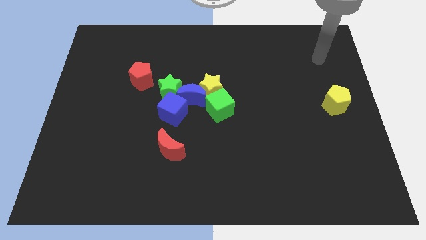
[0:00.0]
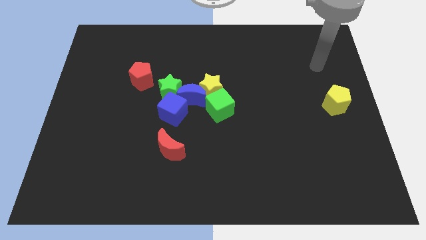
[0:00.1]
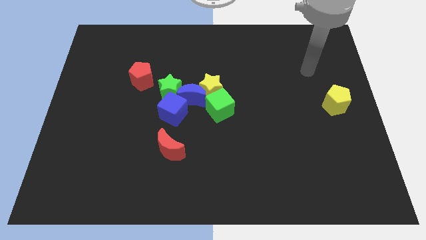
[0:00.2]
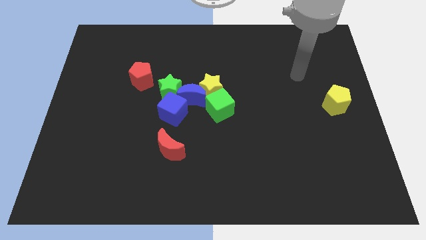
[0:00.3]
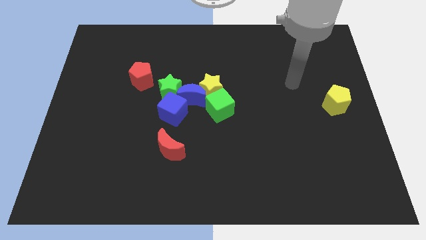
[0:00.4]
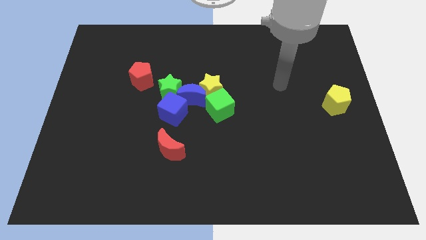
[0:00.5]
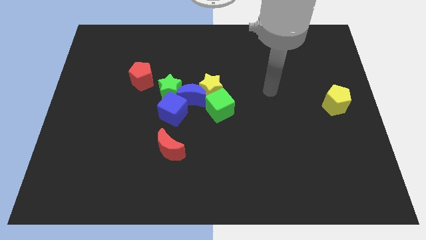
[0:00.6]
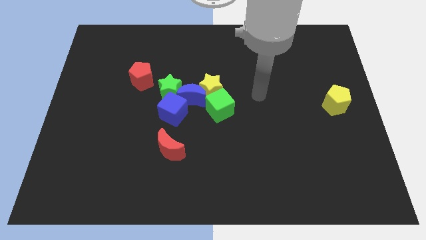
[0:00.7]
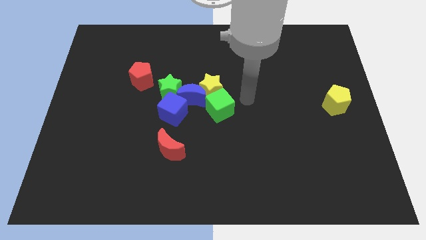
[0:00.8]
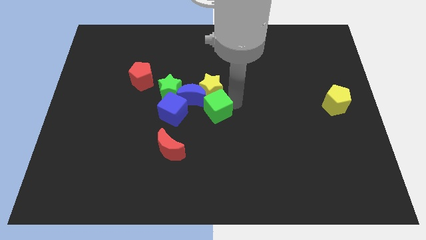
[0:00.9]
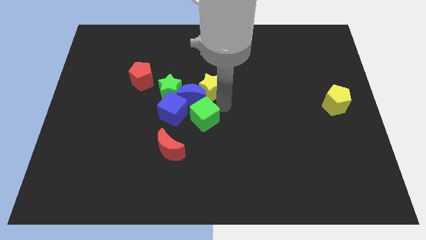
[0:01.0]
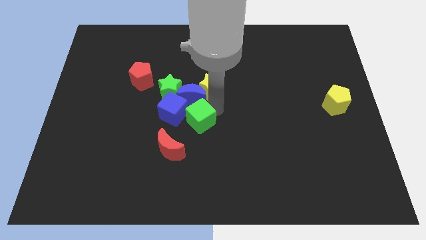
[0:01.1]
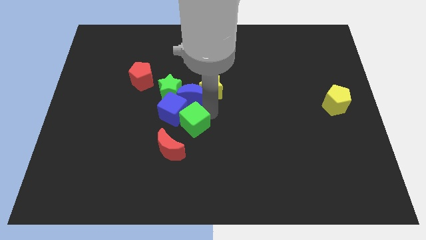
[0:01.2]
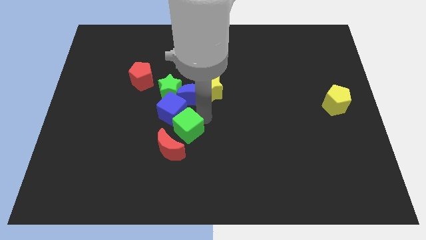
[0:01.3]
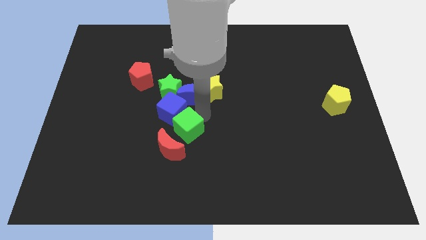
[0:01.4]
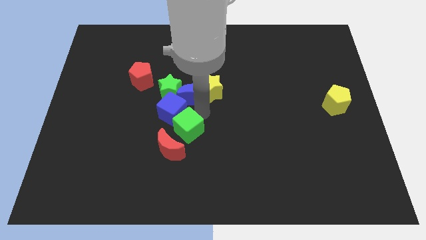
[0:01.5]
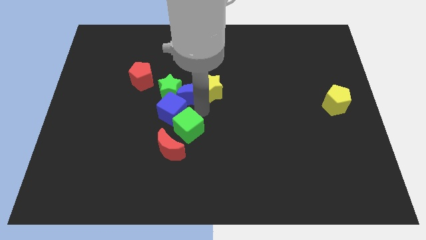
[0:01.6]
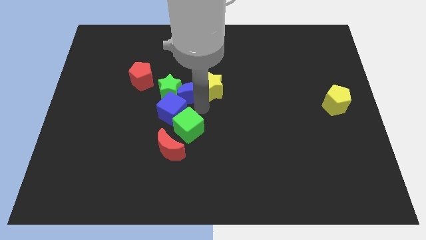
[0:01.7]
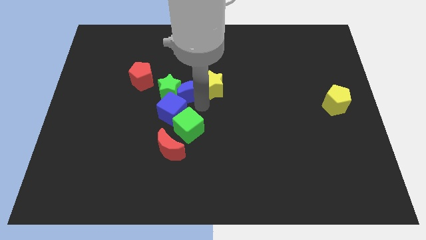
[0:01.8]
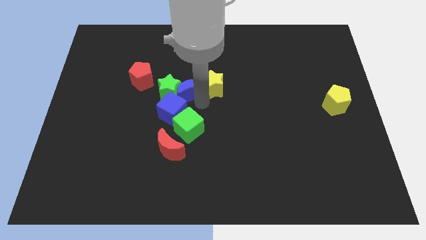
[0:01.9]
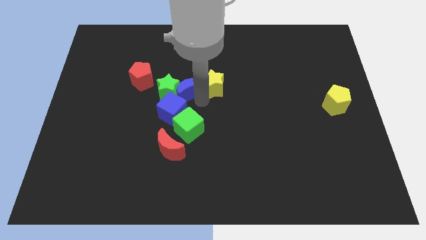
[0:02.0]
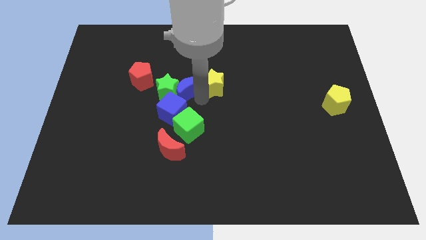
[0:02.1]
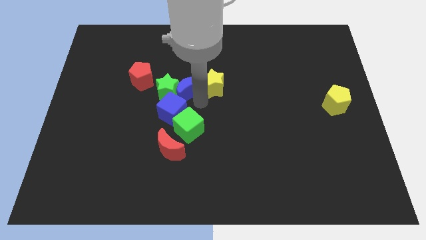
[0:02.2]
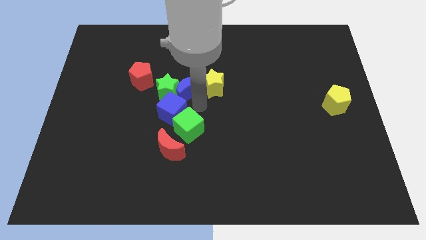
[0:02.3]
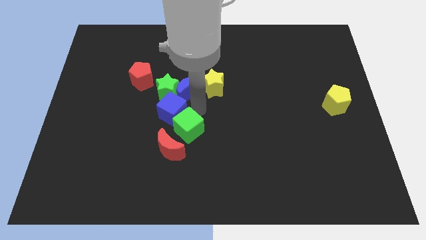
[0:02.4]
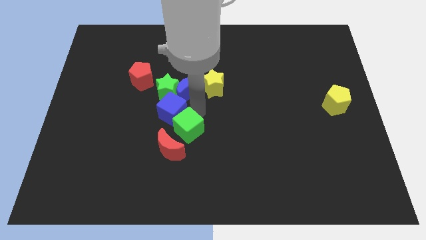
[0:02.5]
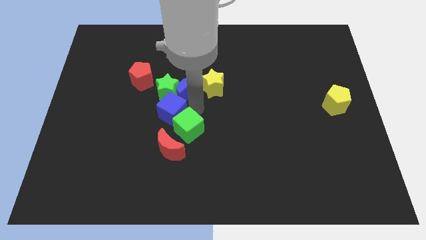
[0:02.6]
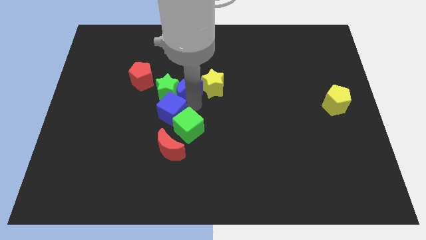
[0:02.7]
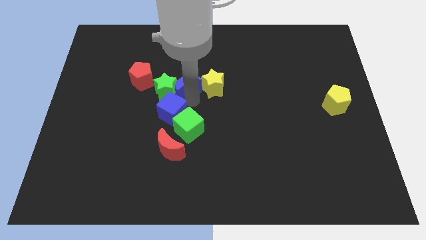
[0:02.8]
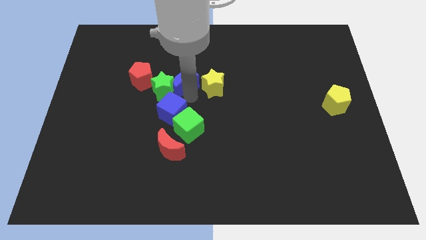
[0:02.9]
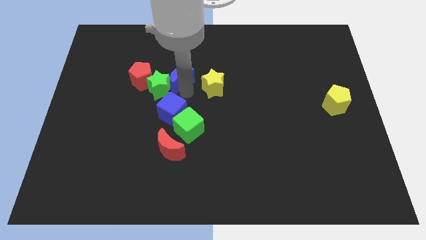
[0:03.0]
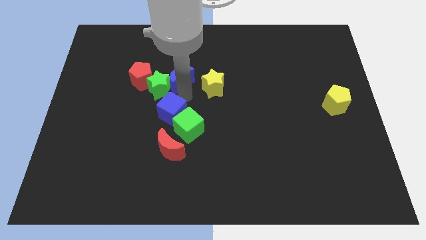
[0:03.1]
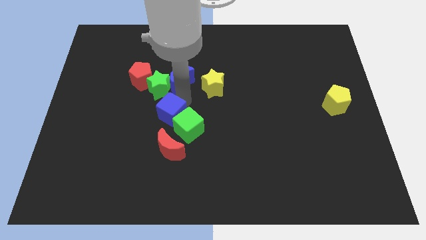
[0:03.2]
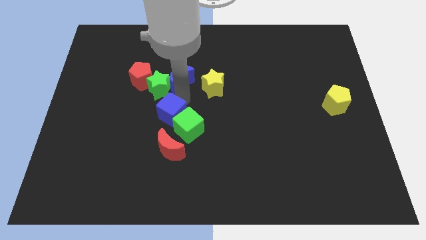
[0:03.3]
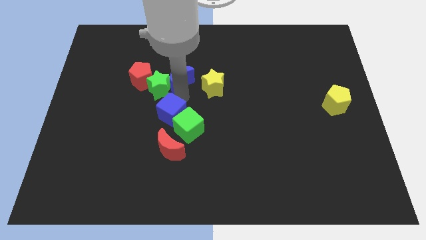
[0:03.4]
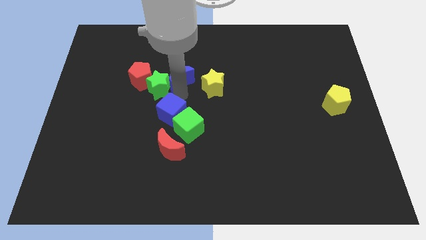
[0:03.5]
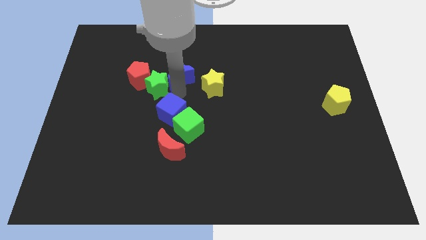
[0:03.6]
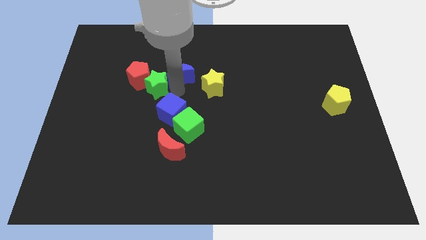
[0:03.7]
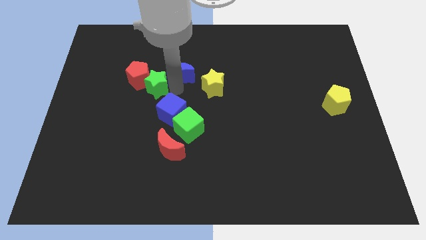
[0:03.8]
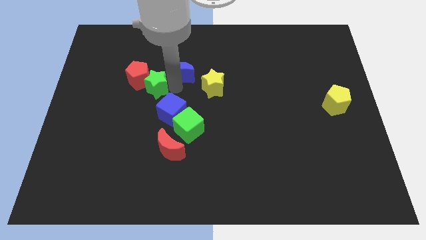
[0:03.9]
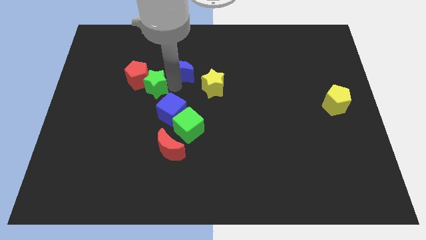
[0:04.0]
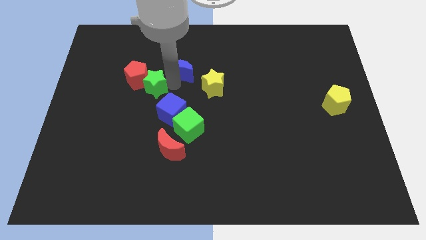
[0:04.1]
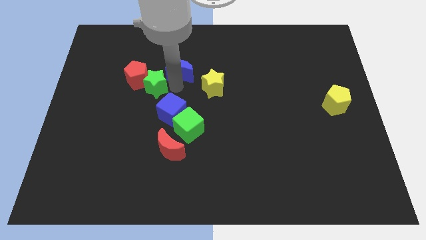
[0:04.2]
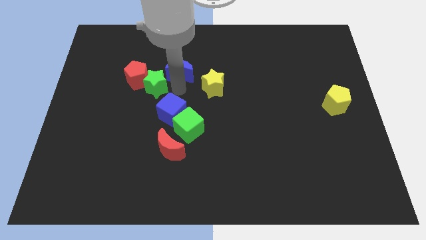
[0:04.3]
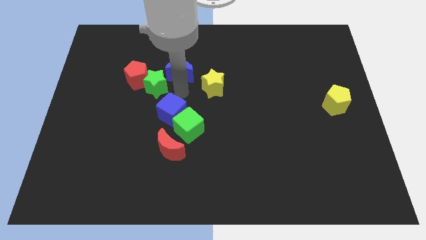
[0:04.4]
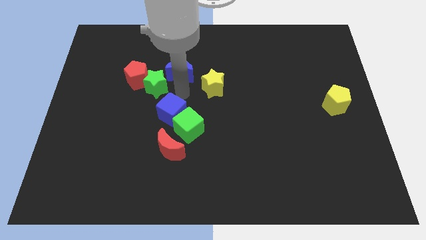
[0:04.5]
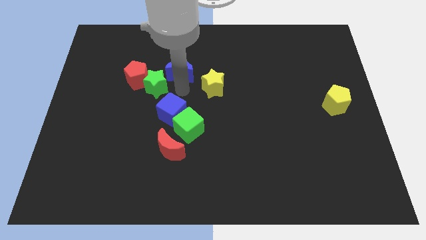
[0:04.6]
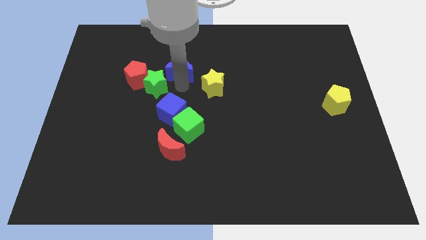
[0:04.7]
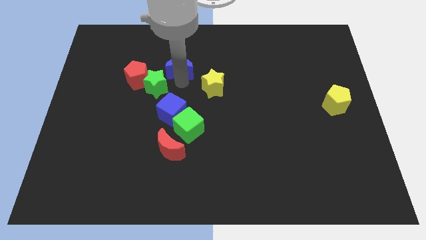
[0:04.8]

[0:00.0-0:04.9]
move the blue moon away from the group of blocks

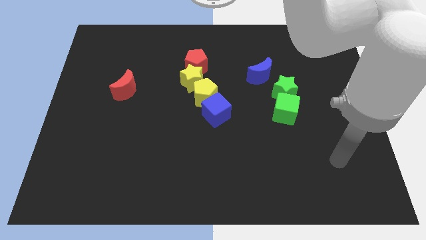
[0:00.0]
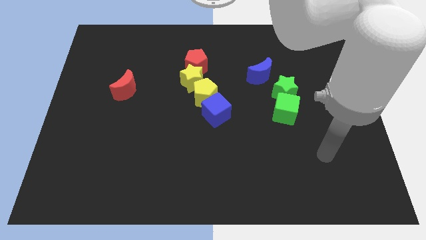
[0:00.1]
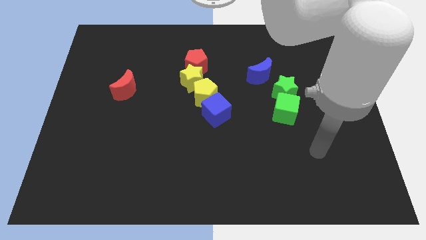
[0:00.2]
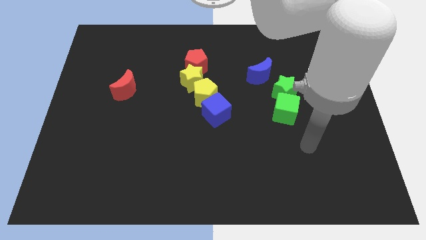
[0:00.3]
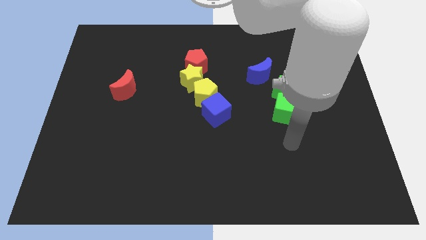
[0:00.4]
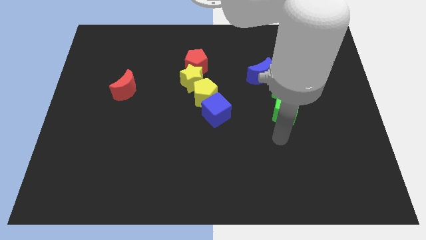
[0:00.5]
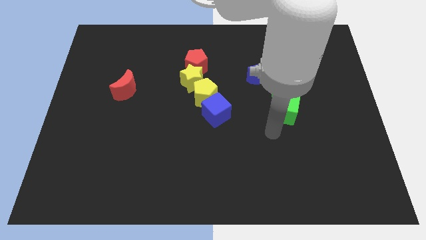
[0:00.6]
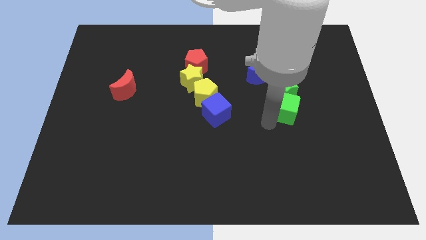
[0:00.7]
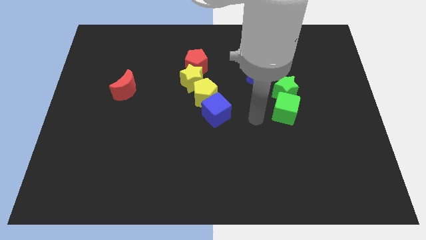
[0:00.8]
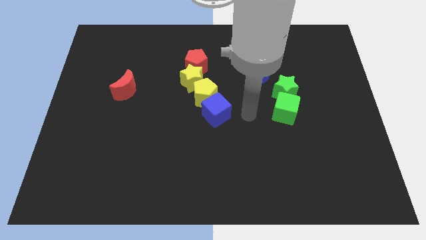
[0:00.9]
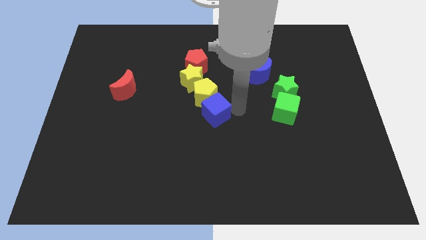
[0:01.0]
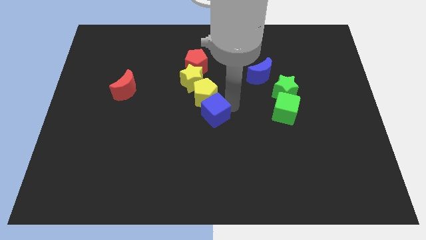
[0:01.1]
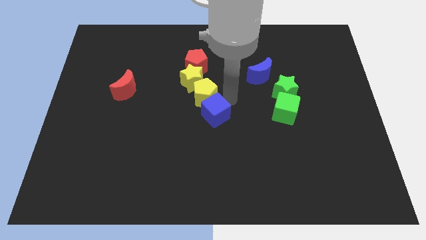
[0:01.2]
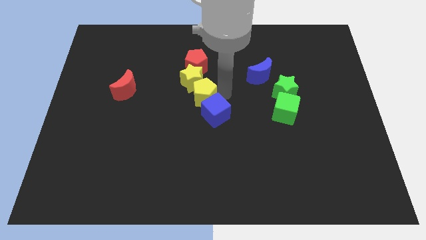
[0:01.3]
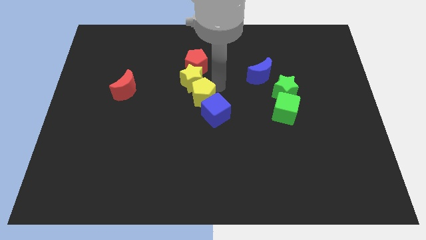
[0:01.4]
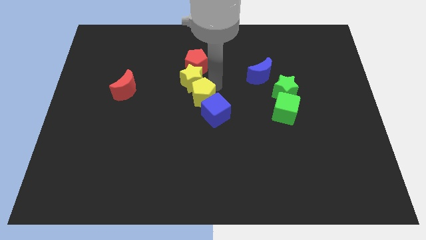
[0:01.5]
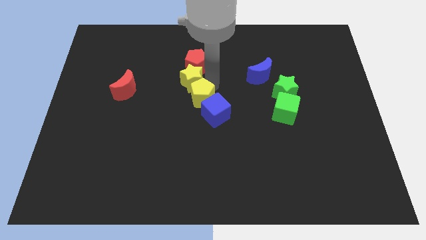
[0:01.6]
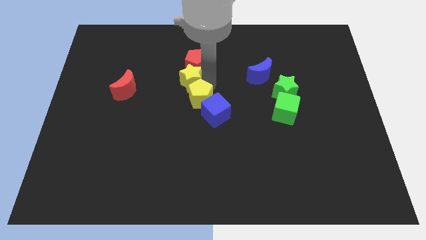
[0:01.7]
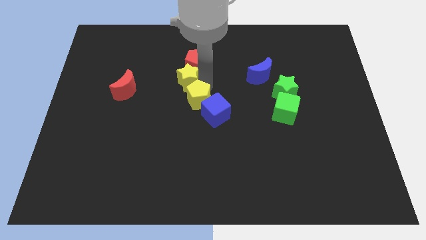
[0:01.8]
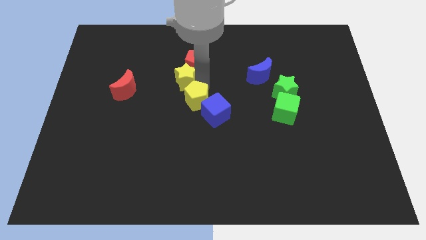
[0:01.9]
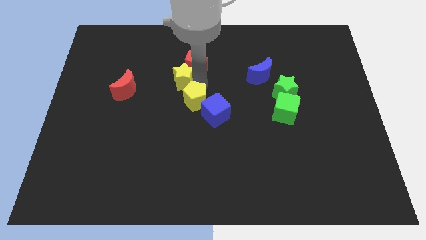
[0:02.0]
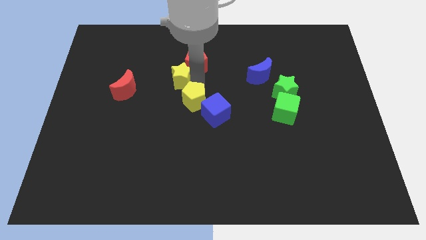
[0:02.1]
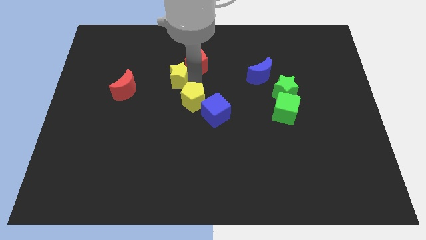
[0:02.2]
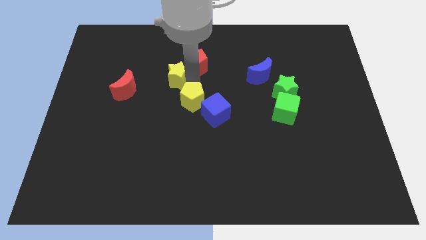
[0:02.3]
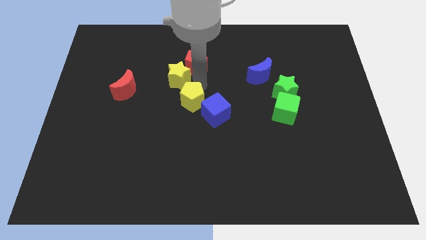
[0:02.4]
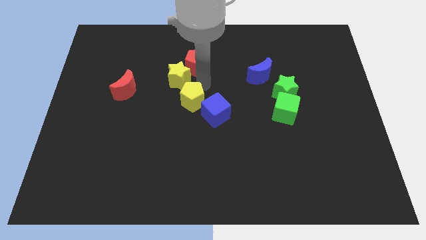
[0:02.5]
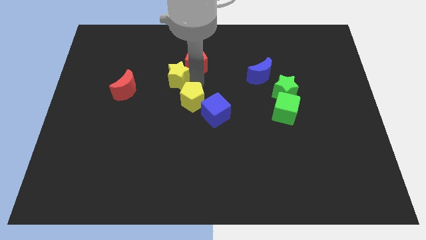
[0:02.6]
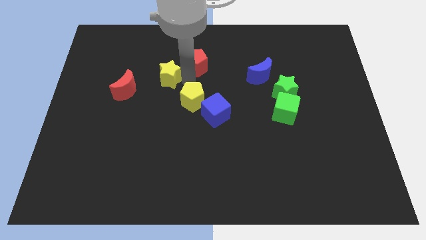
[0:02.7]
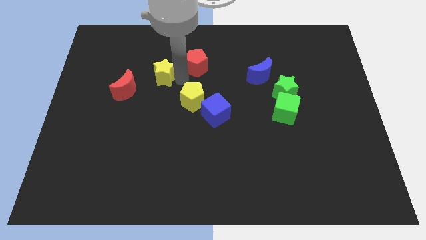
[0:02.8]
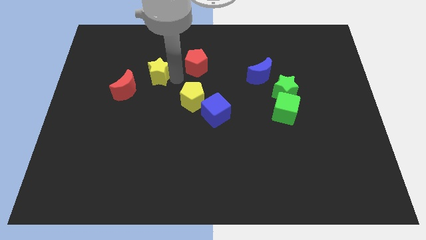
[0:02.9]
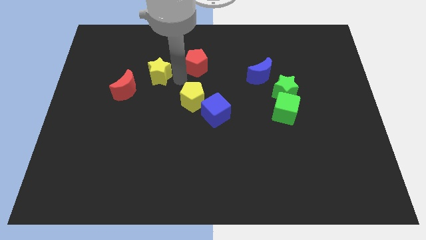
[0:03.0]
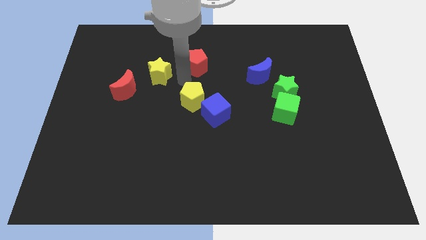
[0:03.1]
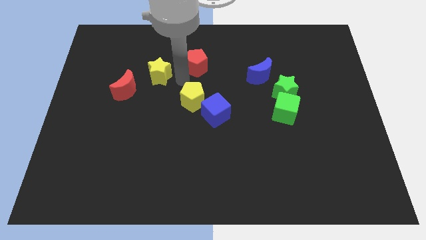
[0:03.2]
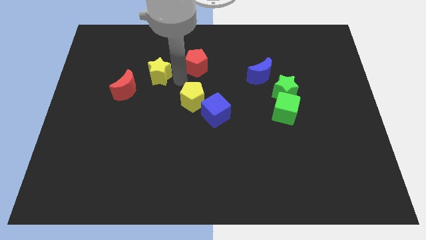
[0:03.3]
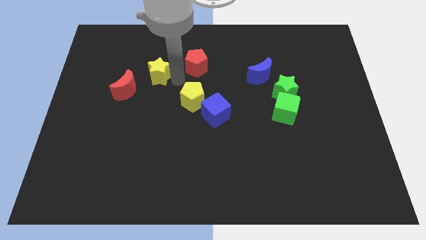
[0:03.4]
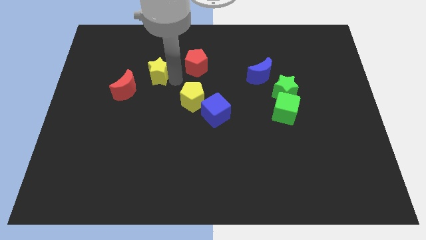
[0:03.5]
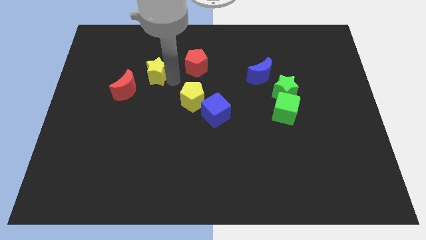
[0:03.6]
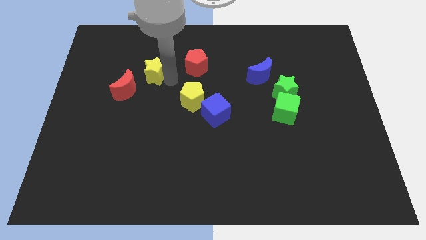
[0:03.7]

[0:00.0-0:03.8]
pull the yellow star apart from the red pentagon and yellow pentagon

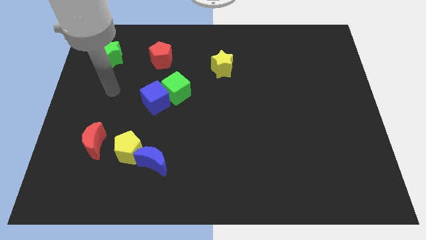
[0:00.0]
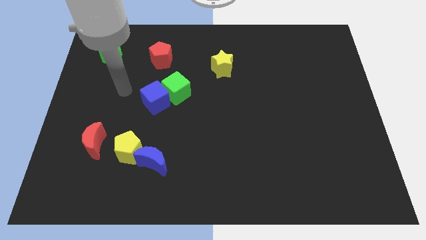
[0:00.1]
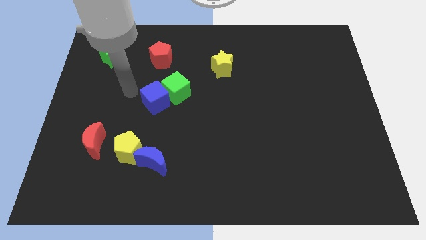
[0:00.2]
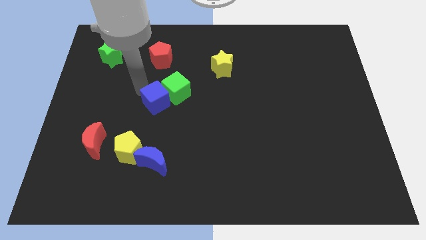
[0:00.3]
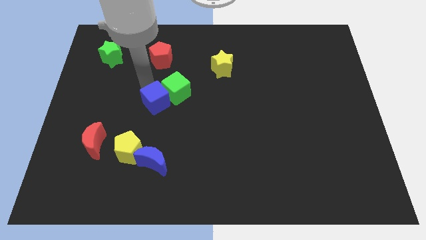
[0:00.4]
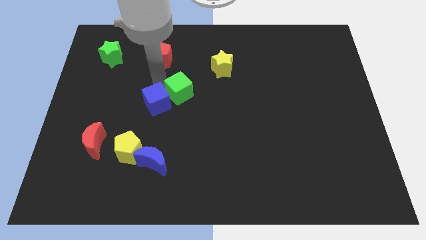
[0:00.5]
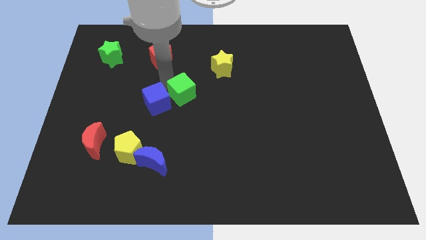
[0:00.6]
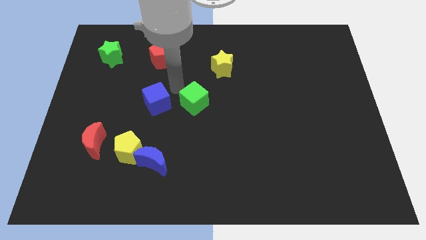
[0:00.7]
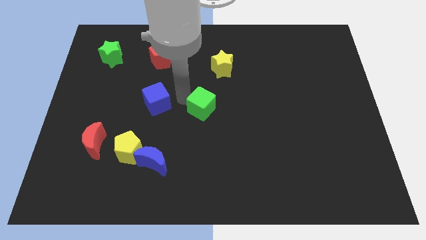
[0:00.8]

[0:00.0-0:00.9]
move the blue cube away from the green cube
